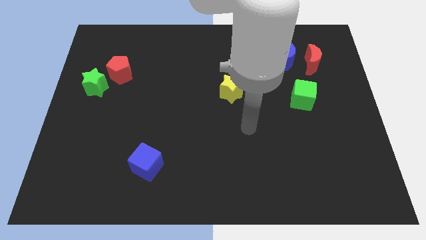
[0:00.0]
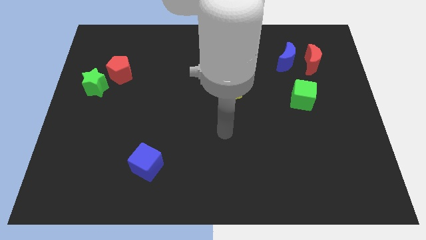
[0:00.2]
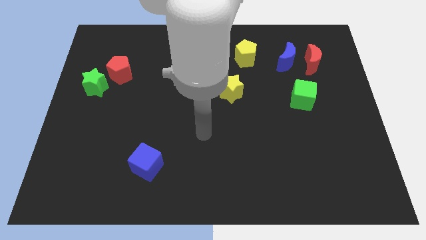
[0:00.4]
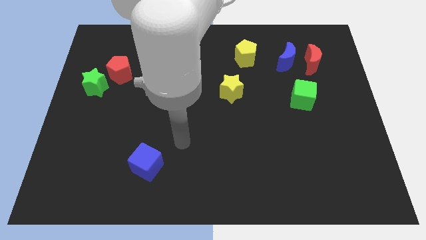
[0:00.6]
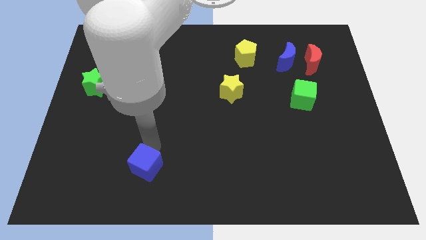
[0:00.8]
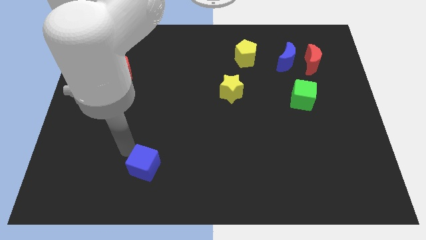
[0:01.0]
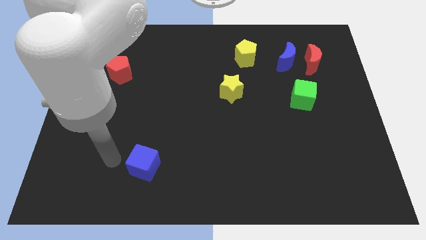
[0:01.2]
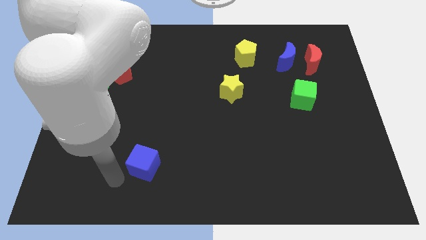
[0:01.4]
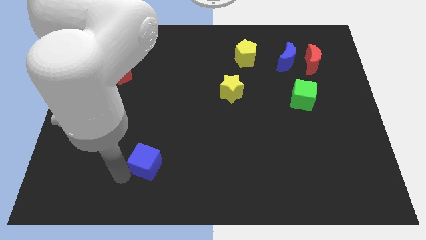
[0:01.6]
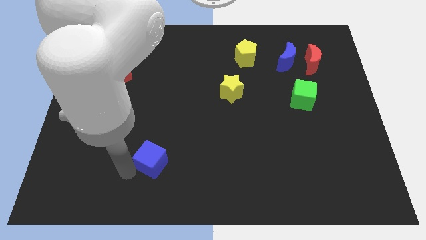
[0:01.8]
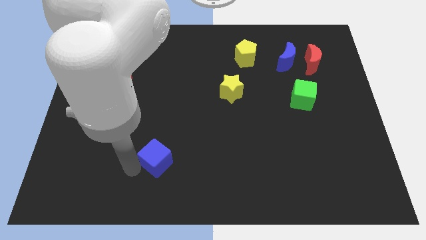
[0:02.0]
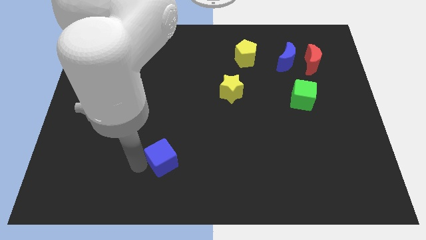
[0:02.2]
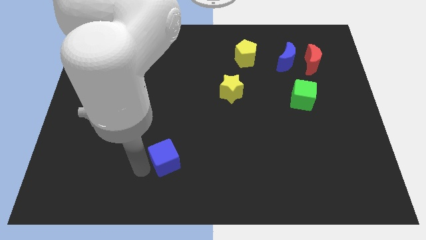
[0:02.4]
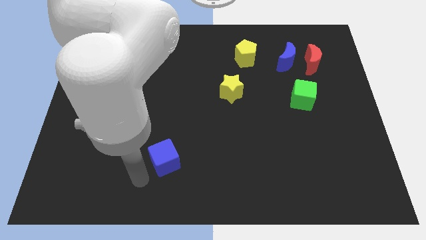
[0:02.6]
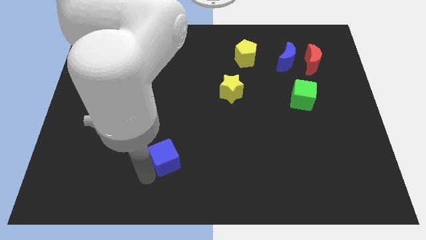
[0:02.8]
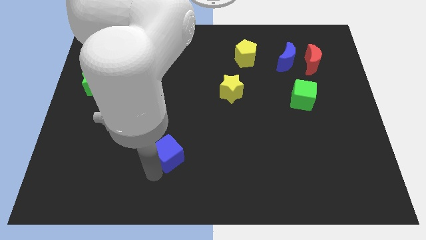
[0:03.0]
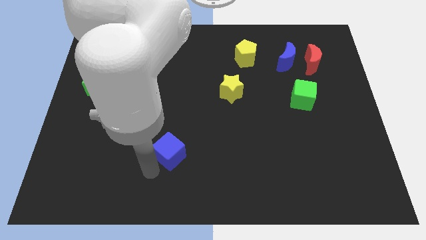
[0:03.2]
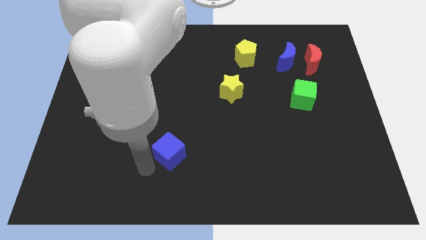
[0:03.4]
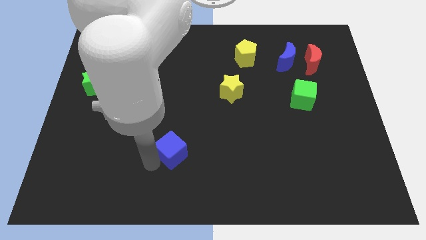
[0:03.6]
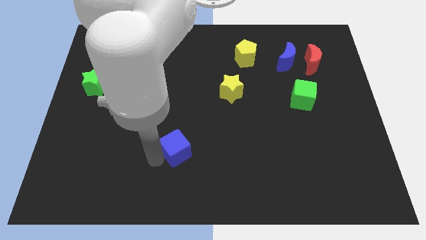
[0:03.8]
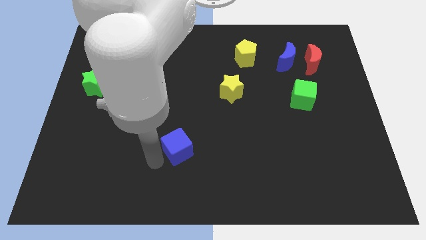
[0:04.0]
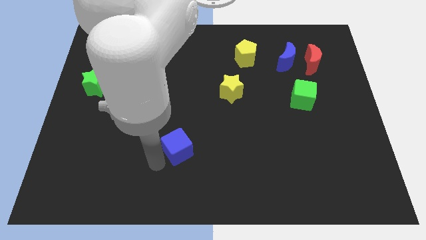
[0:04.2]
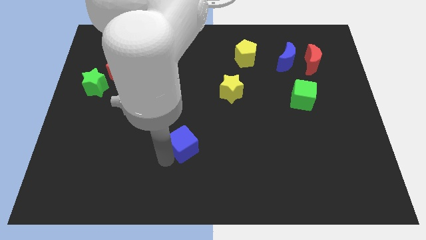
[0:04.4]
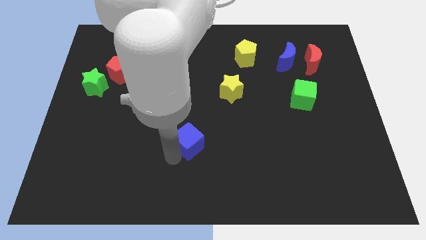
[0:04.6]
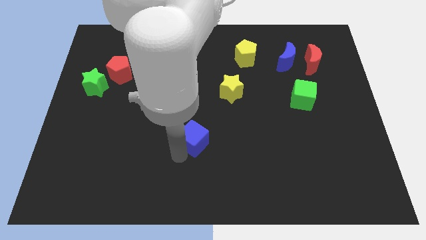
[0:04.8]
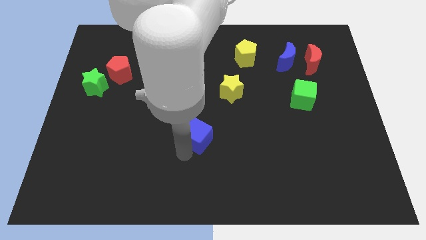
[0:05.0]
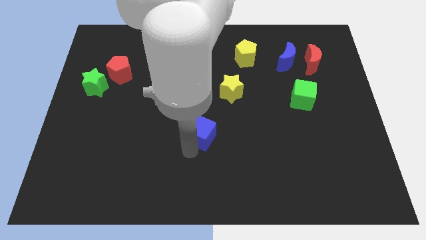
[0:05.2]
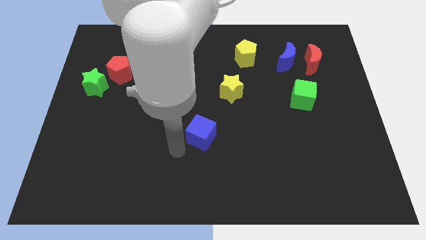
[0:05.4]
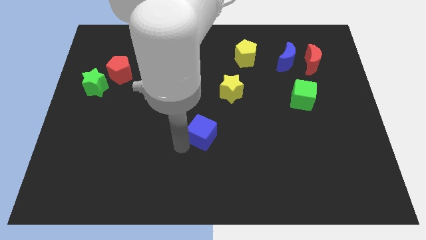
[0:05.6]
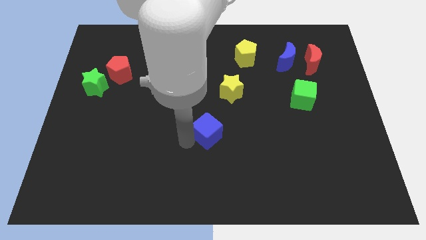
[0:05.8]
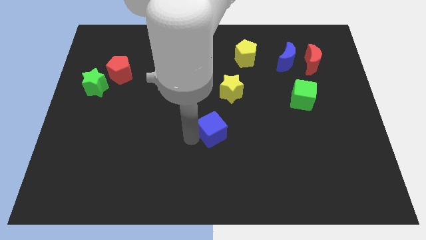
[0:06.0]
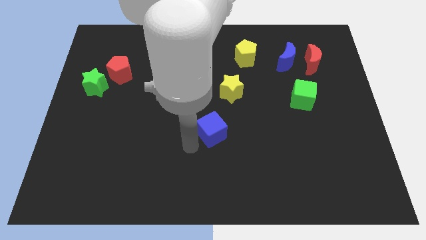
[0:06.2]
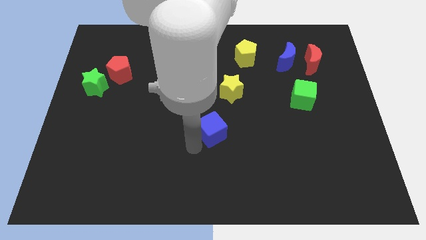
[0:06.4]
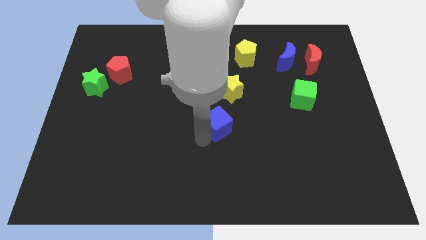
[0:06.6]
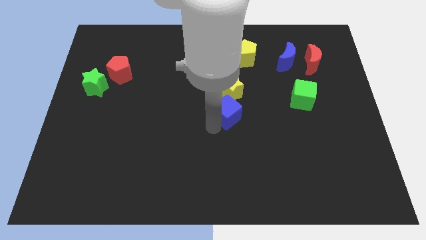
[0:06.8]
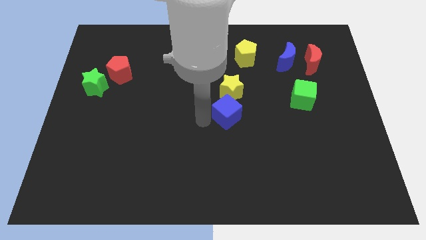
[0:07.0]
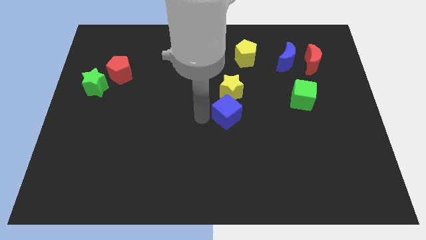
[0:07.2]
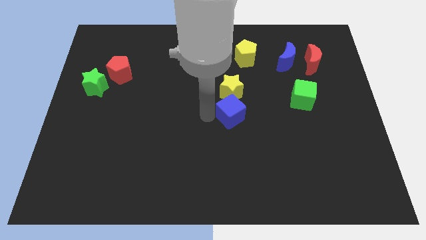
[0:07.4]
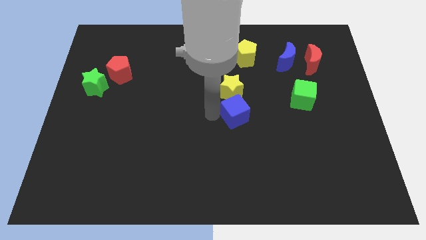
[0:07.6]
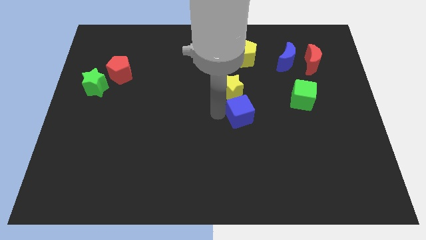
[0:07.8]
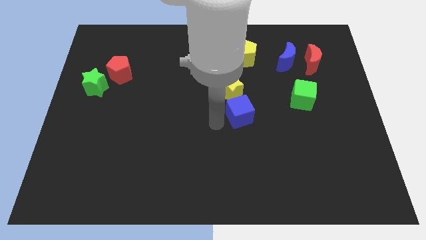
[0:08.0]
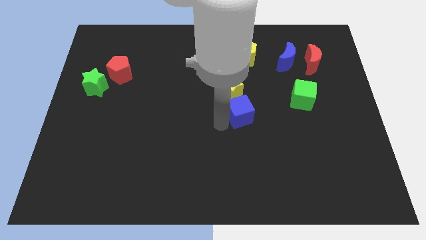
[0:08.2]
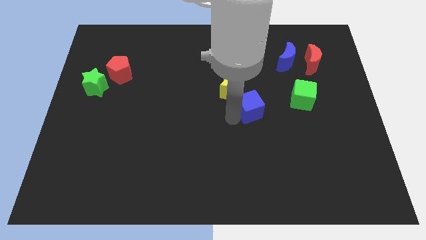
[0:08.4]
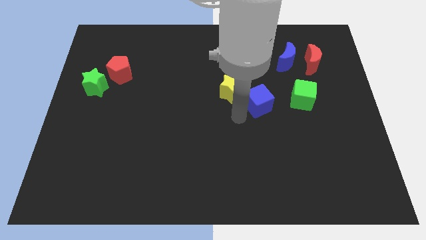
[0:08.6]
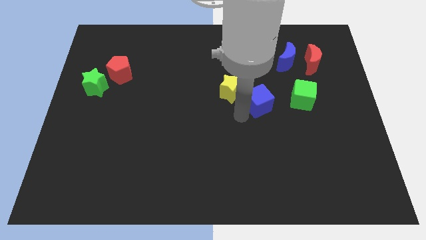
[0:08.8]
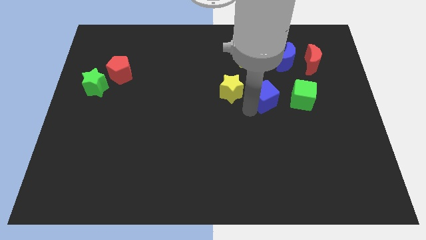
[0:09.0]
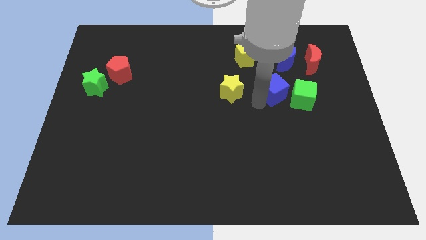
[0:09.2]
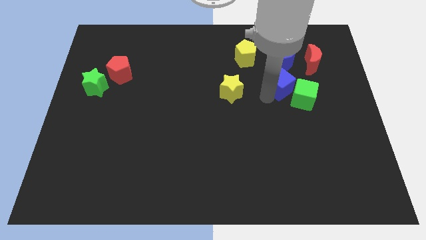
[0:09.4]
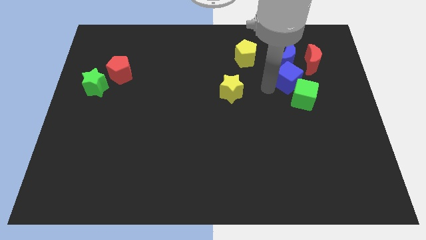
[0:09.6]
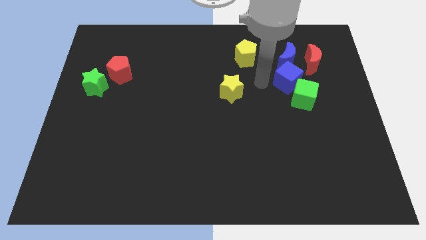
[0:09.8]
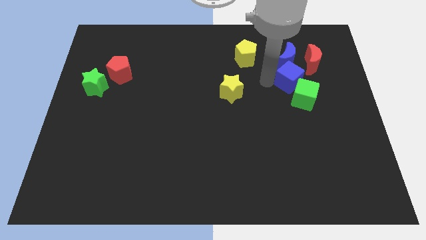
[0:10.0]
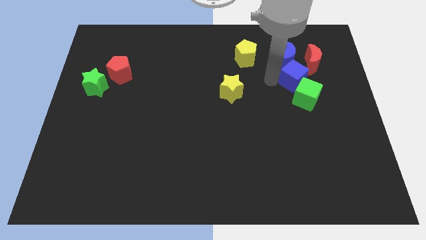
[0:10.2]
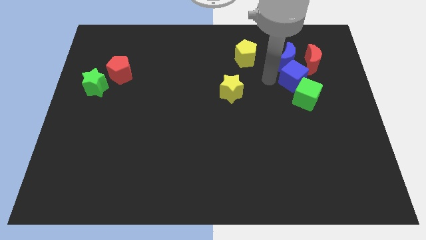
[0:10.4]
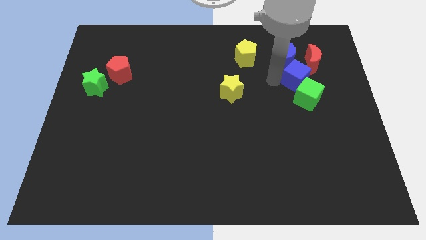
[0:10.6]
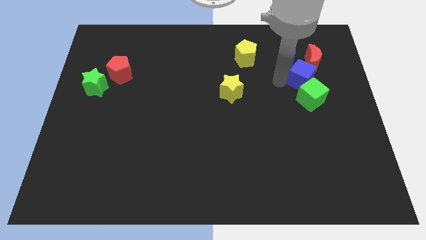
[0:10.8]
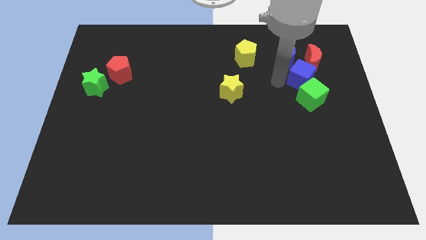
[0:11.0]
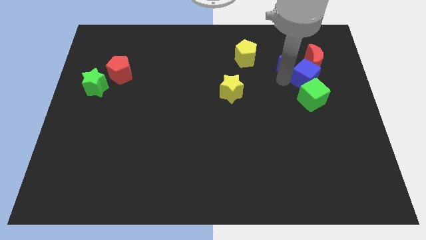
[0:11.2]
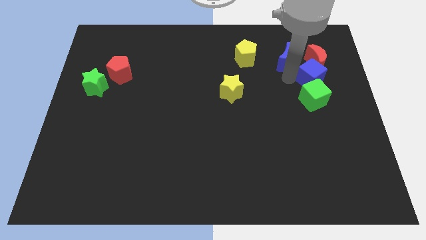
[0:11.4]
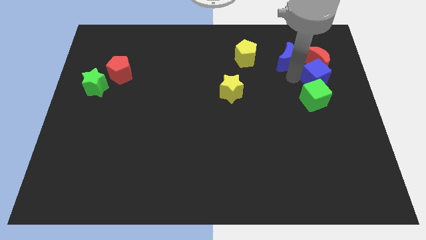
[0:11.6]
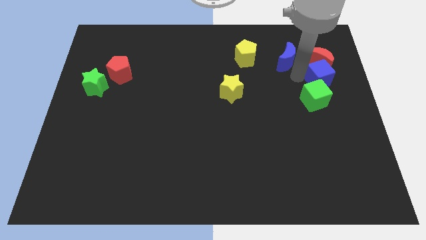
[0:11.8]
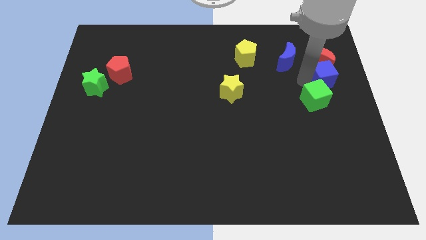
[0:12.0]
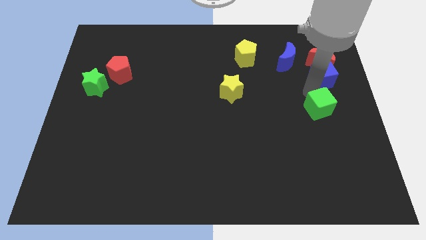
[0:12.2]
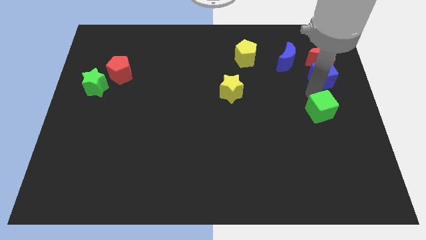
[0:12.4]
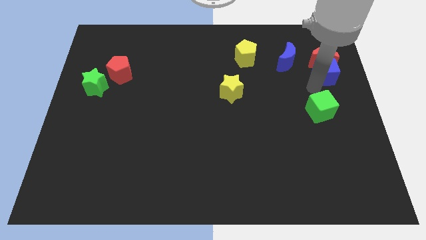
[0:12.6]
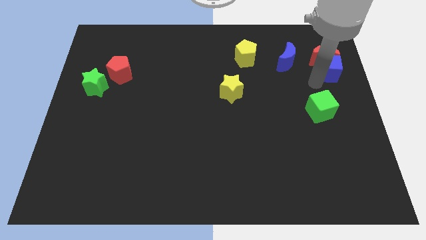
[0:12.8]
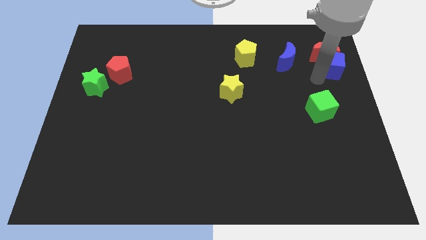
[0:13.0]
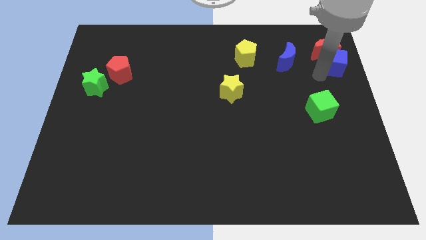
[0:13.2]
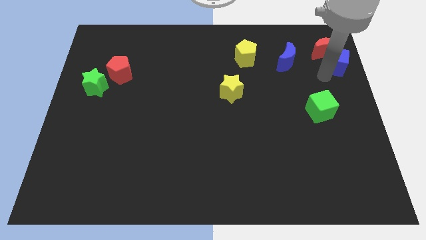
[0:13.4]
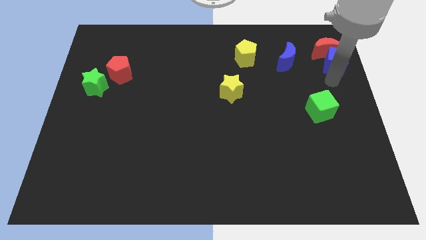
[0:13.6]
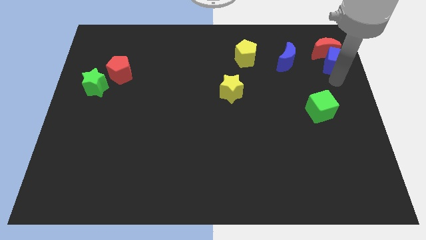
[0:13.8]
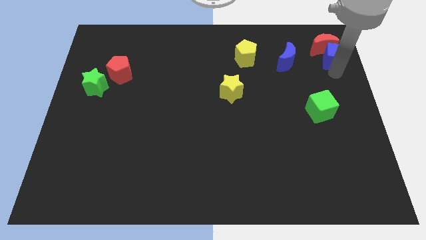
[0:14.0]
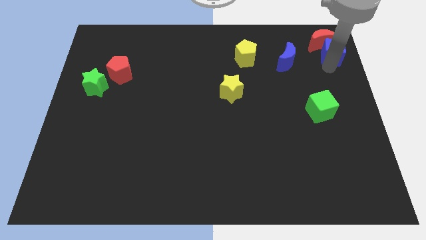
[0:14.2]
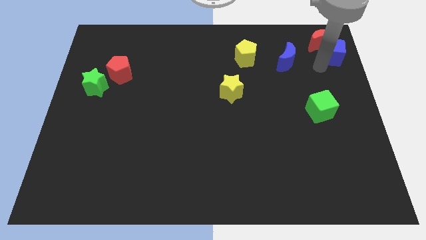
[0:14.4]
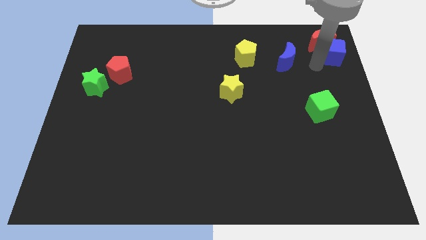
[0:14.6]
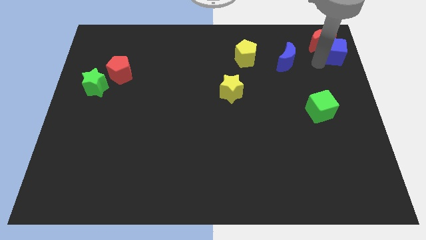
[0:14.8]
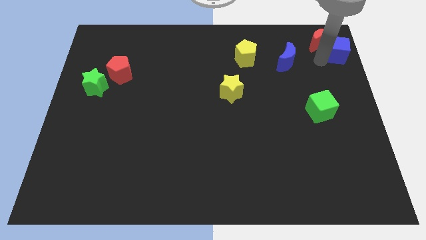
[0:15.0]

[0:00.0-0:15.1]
move the blue cube to the top right of the board
